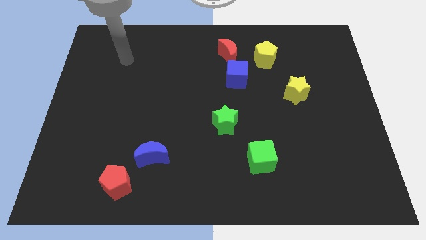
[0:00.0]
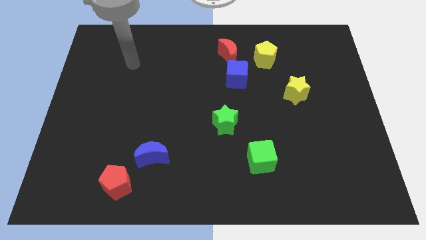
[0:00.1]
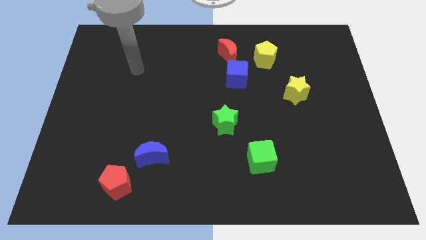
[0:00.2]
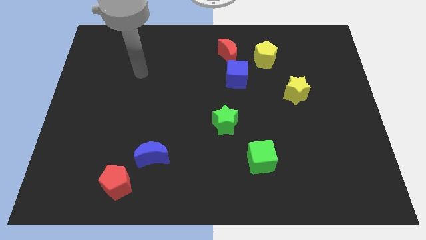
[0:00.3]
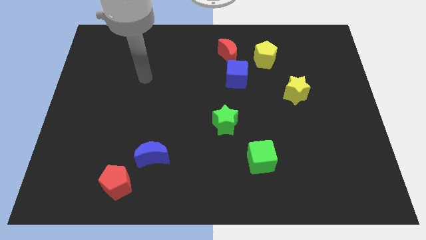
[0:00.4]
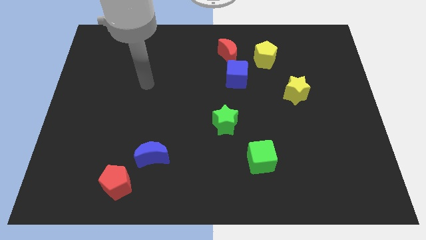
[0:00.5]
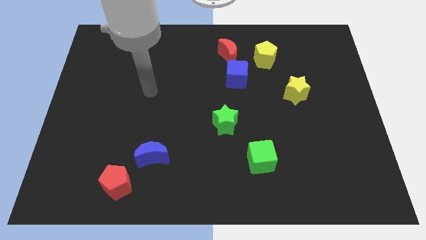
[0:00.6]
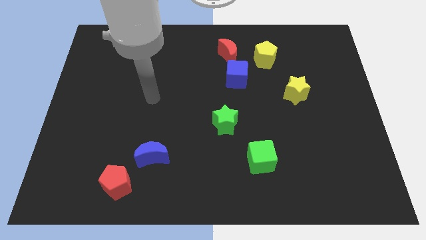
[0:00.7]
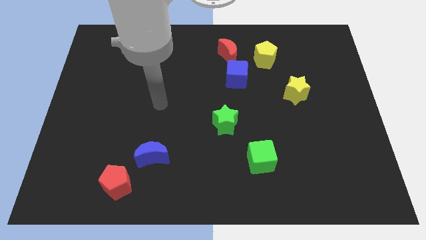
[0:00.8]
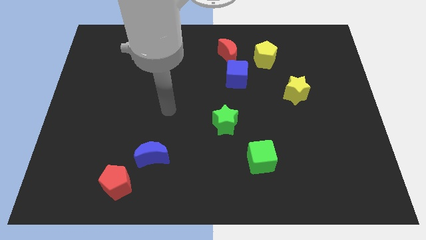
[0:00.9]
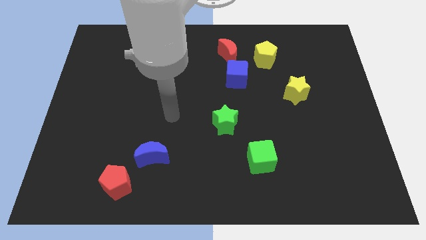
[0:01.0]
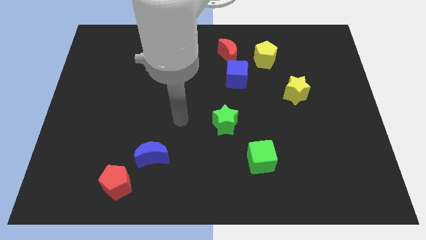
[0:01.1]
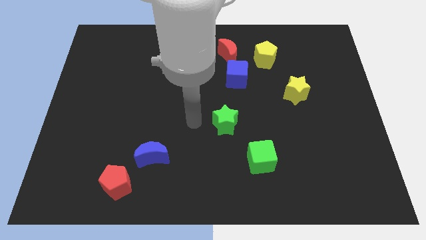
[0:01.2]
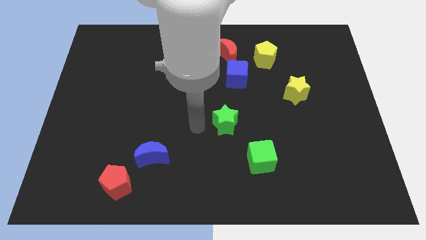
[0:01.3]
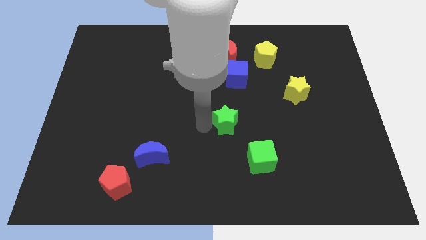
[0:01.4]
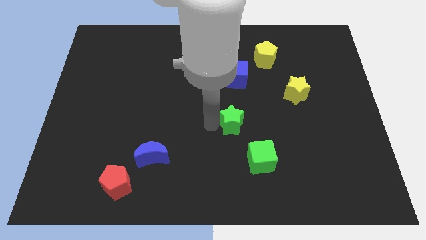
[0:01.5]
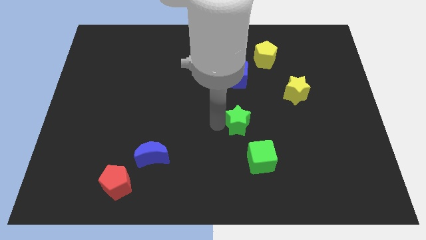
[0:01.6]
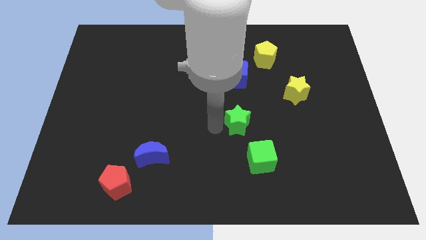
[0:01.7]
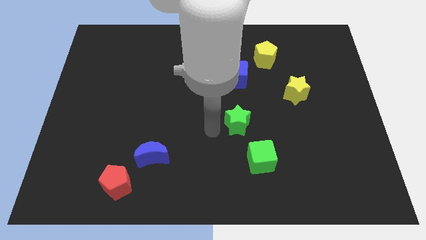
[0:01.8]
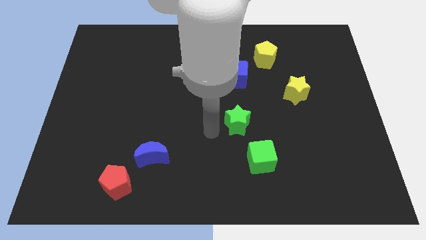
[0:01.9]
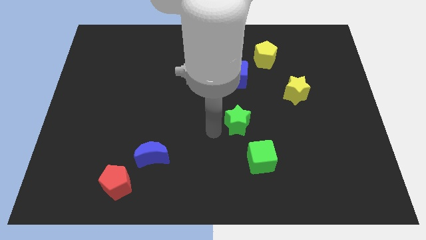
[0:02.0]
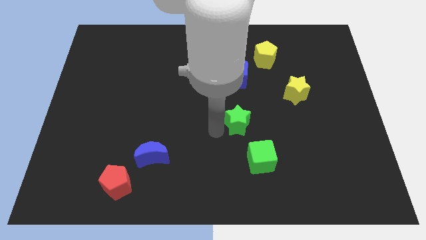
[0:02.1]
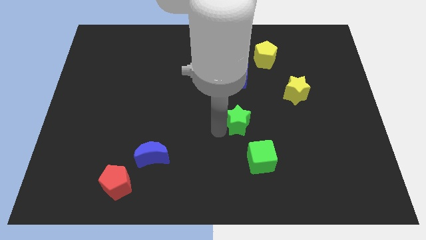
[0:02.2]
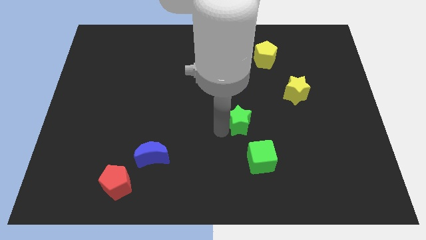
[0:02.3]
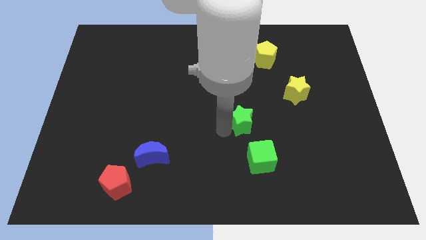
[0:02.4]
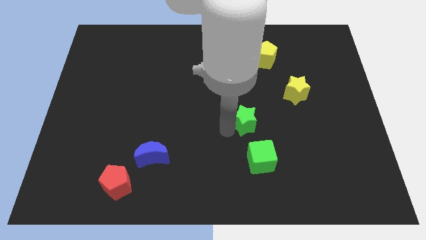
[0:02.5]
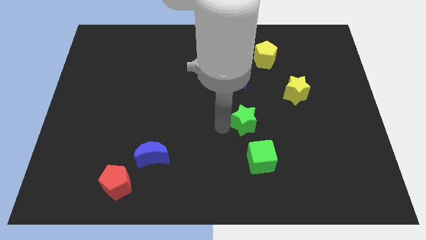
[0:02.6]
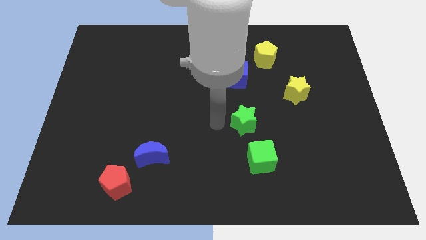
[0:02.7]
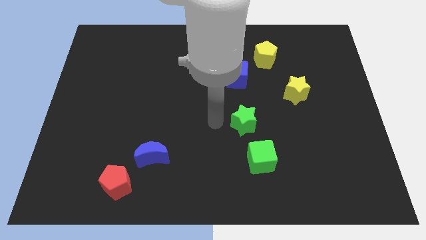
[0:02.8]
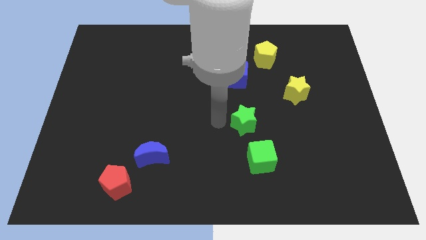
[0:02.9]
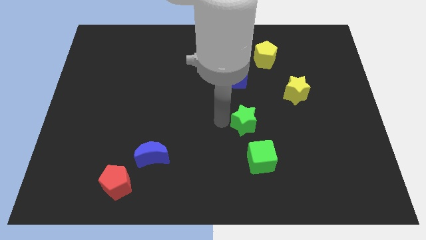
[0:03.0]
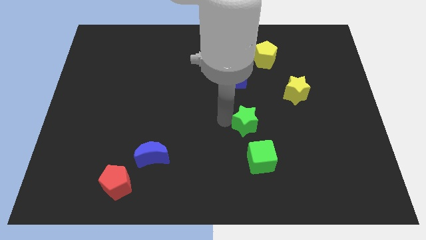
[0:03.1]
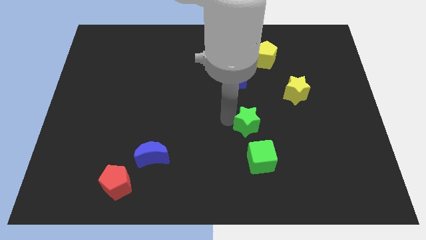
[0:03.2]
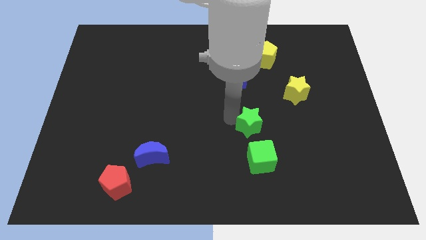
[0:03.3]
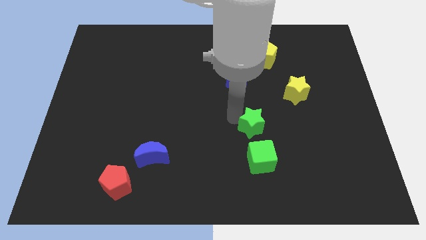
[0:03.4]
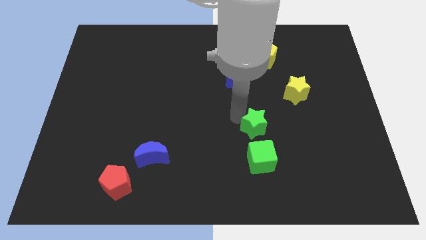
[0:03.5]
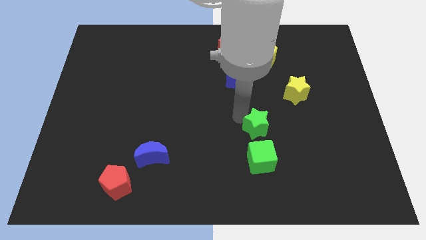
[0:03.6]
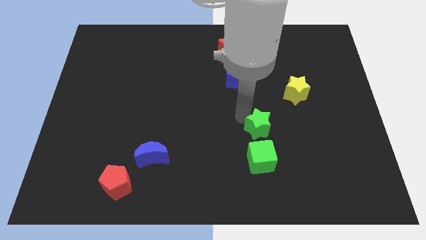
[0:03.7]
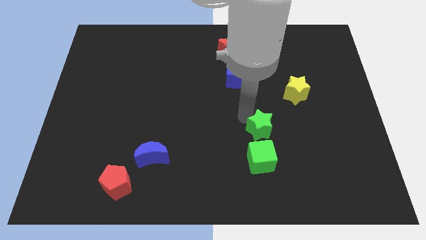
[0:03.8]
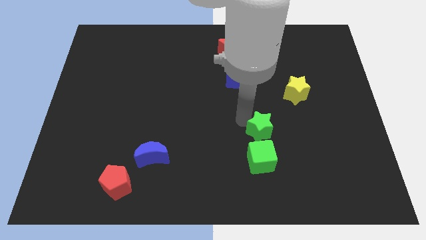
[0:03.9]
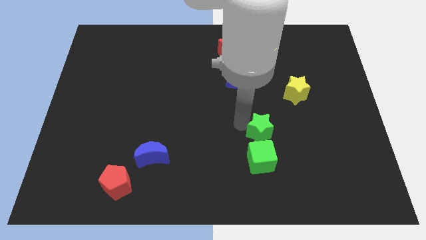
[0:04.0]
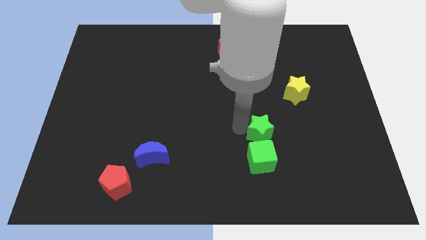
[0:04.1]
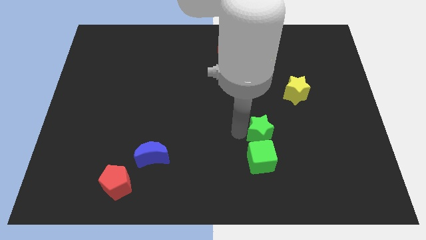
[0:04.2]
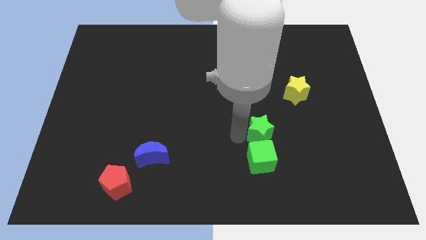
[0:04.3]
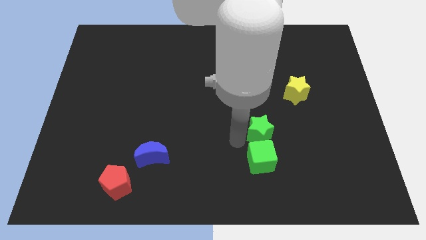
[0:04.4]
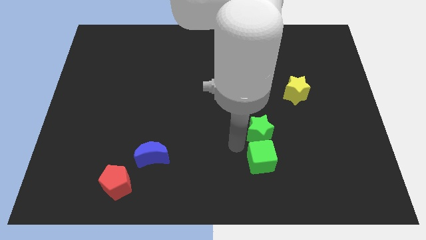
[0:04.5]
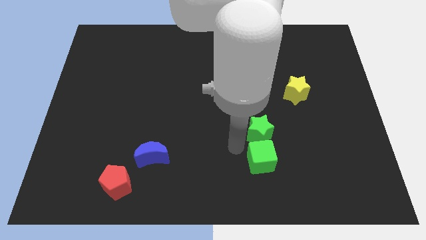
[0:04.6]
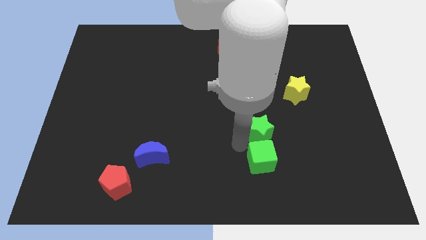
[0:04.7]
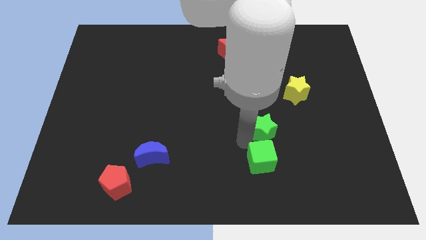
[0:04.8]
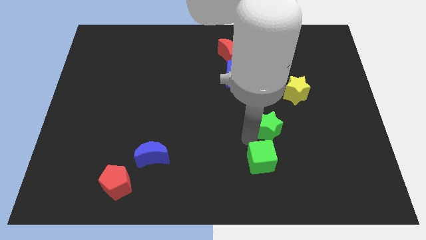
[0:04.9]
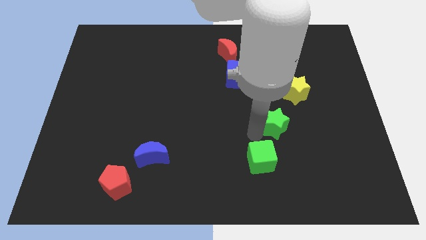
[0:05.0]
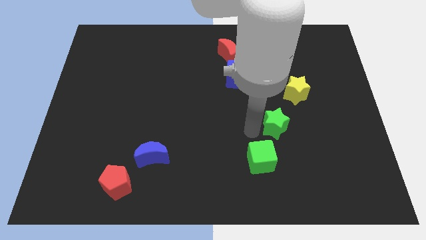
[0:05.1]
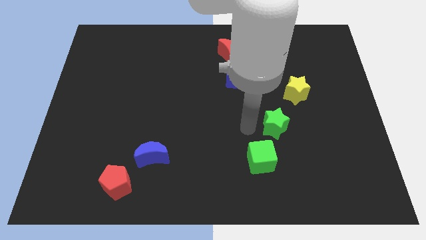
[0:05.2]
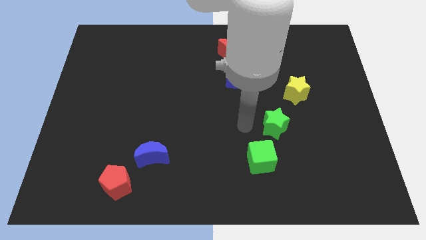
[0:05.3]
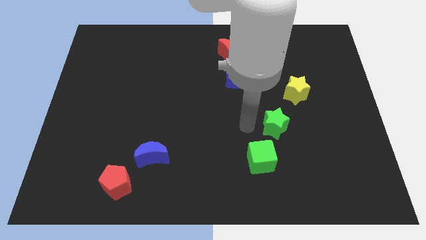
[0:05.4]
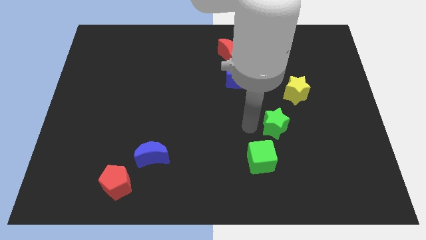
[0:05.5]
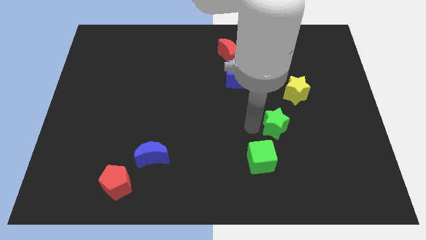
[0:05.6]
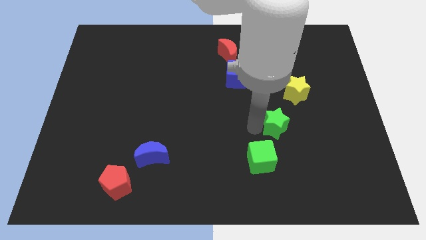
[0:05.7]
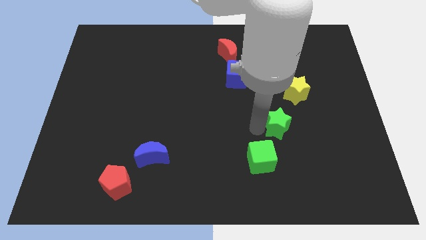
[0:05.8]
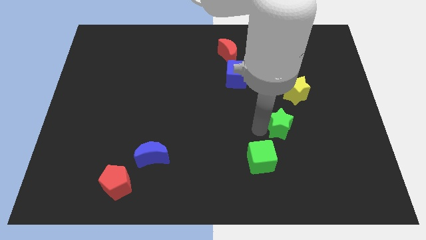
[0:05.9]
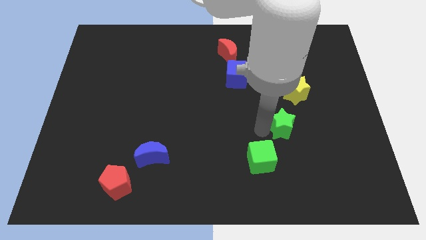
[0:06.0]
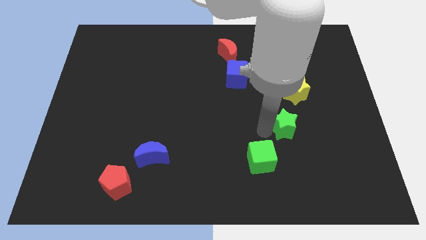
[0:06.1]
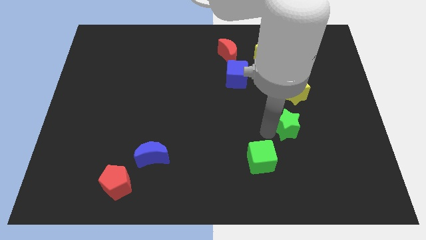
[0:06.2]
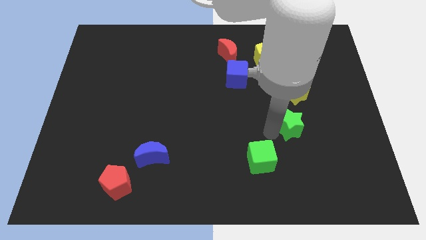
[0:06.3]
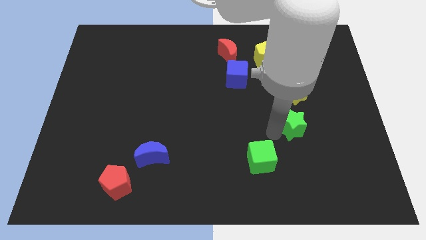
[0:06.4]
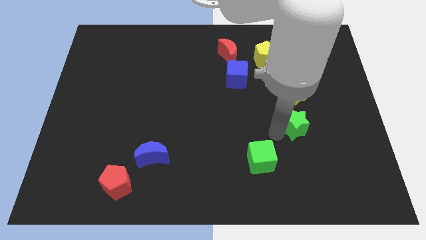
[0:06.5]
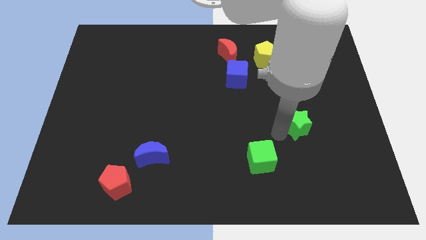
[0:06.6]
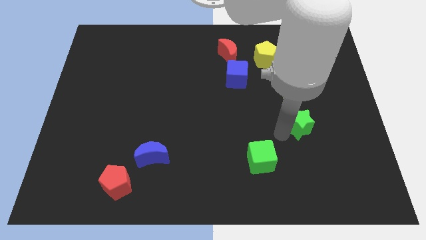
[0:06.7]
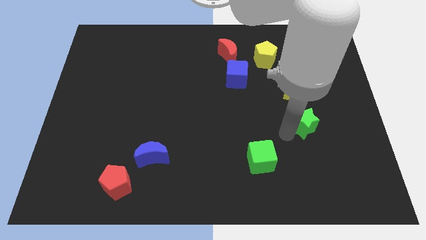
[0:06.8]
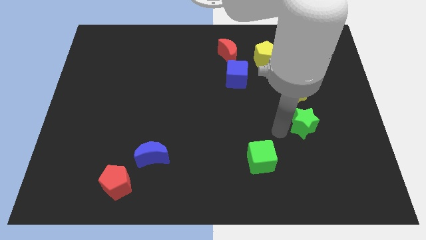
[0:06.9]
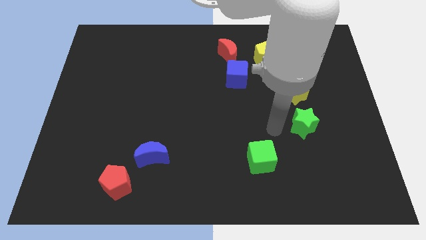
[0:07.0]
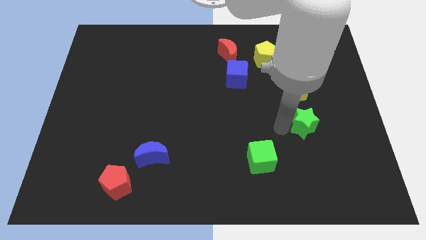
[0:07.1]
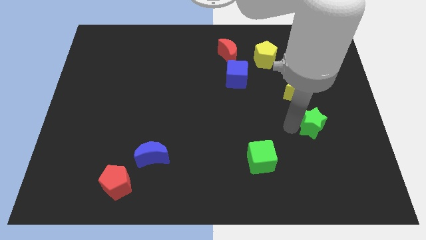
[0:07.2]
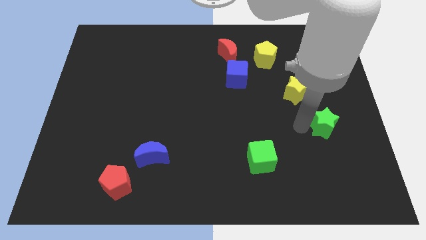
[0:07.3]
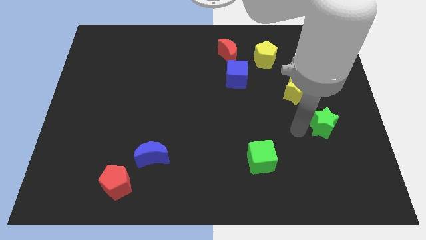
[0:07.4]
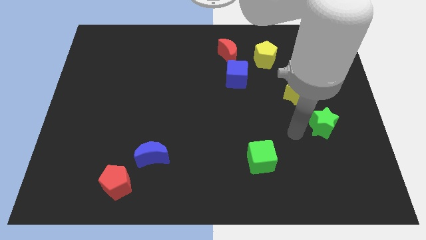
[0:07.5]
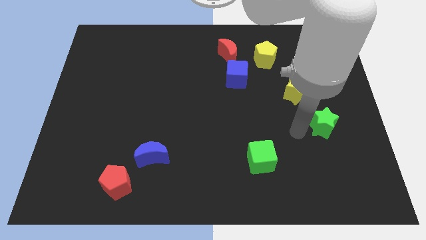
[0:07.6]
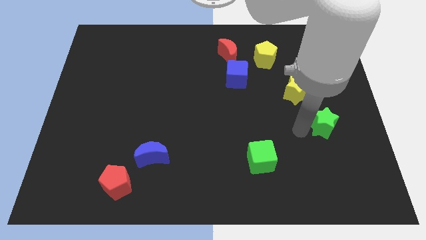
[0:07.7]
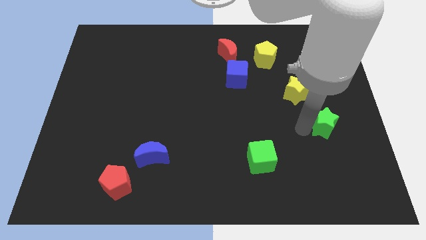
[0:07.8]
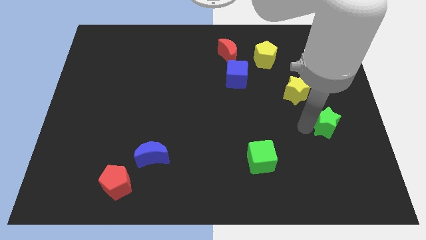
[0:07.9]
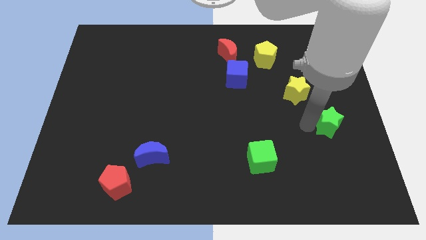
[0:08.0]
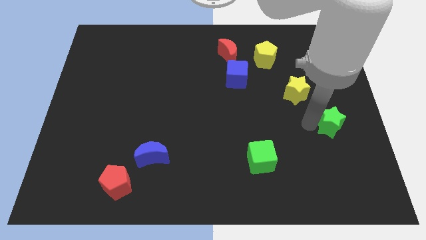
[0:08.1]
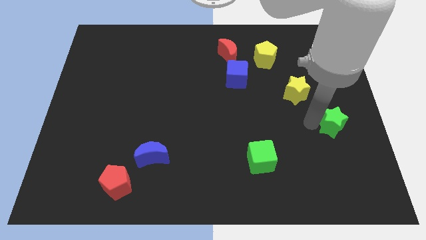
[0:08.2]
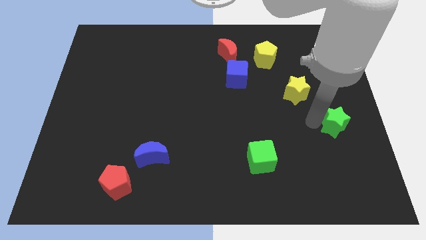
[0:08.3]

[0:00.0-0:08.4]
push the green star to the right side
